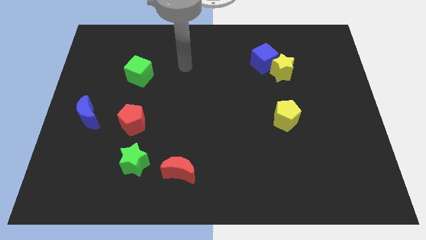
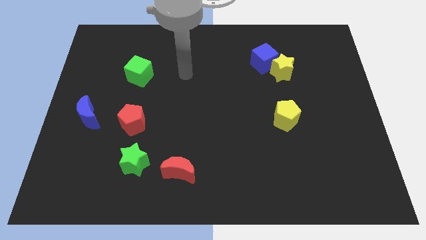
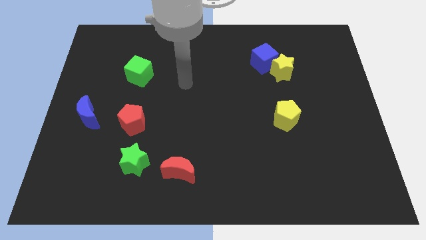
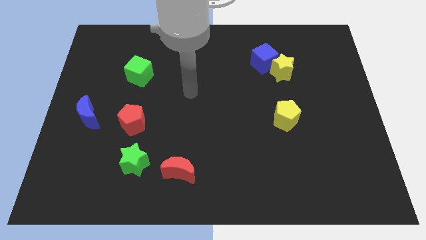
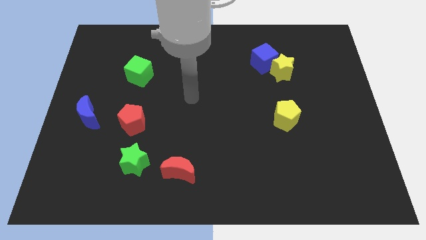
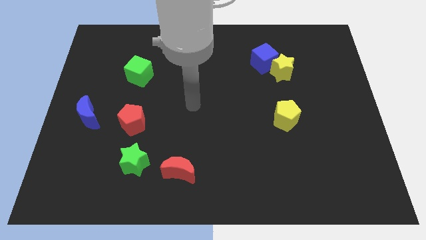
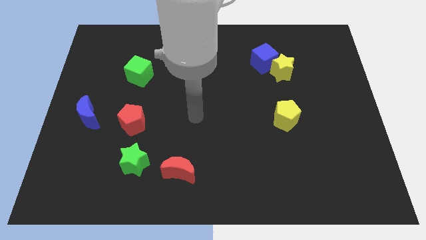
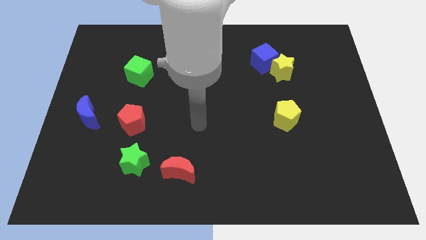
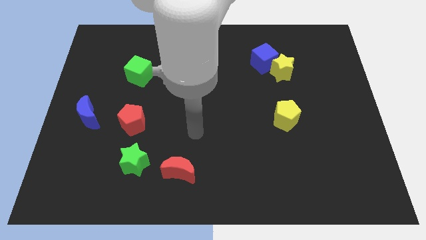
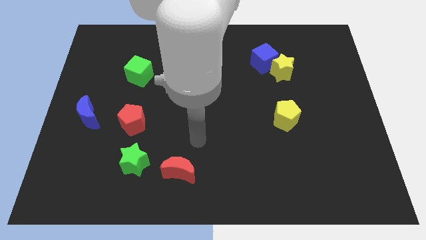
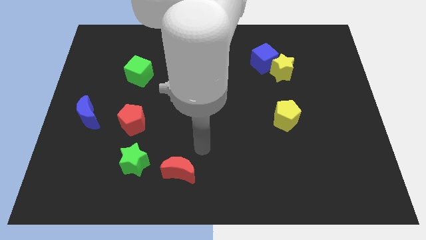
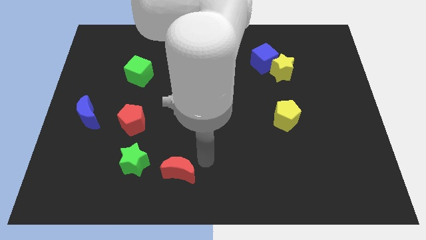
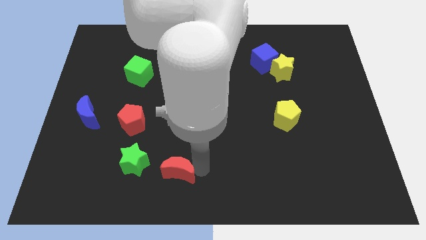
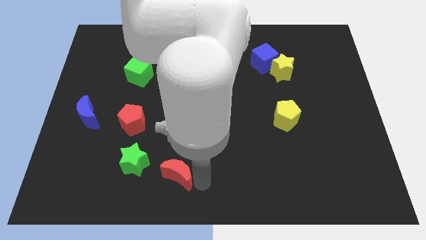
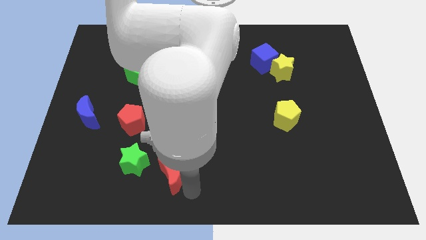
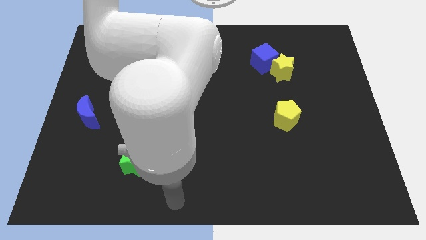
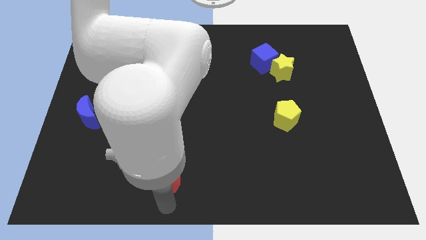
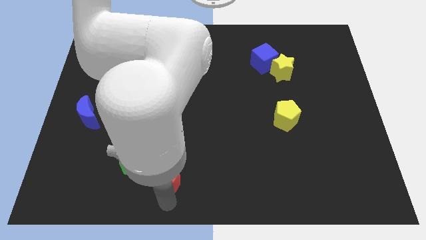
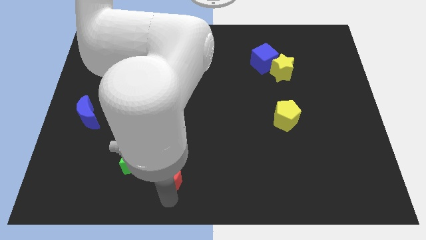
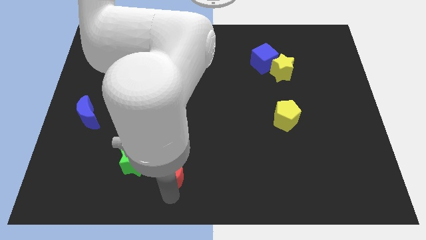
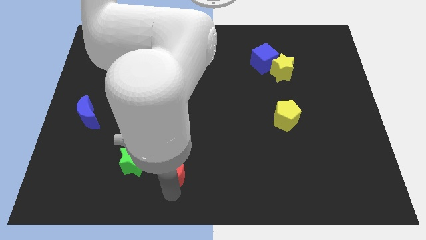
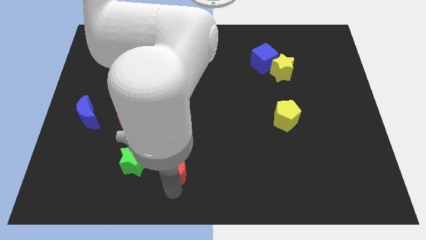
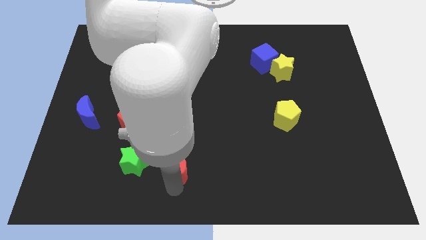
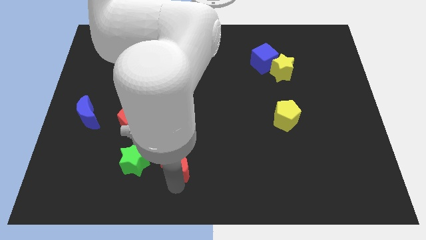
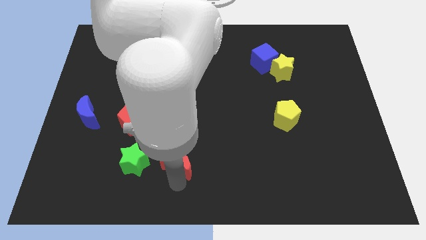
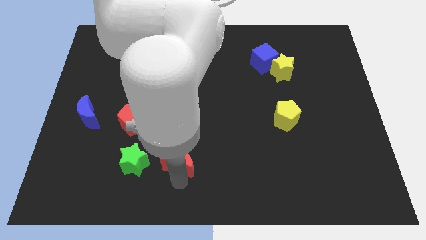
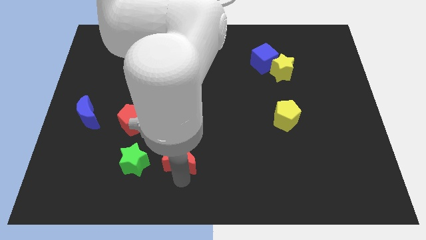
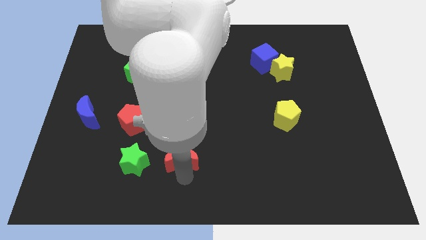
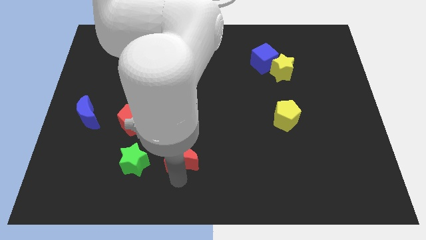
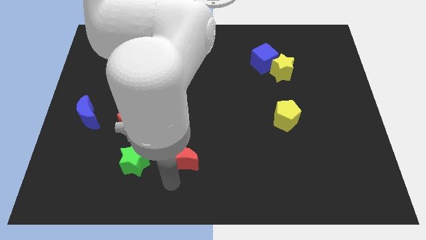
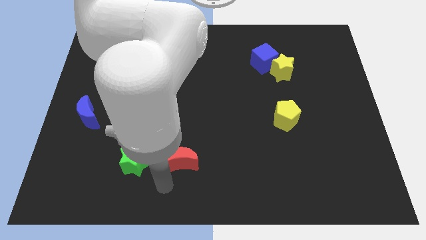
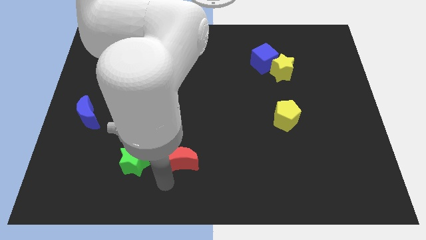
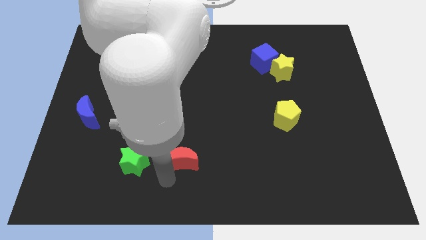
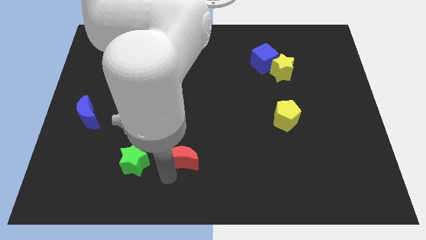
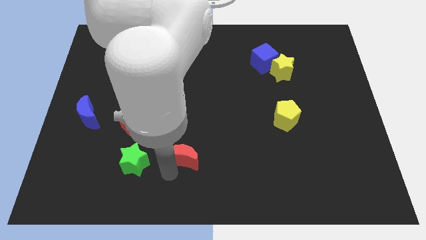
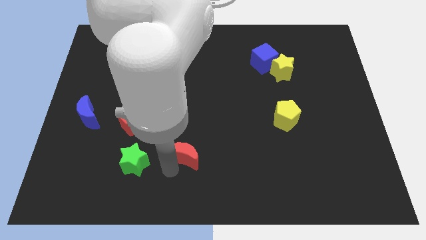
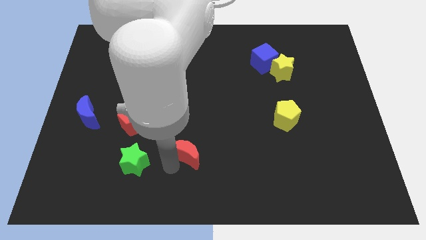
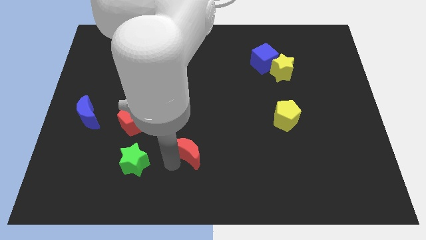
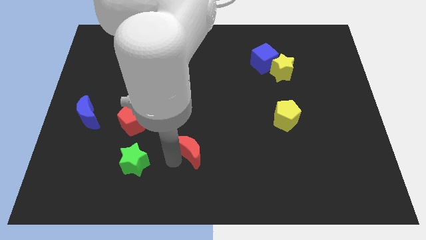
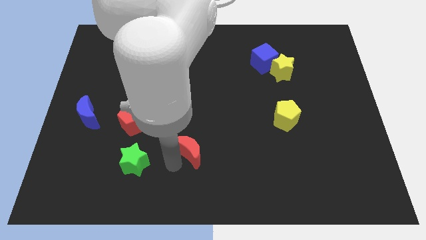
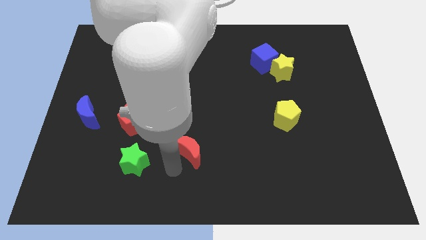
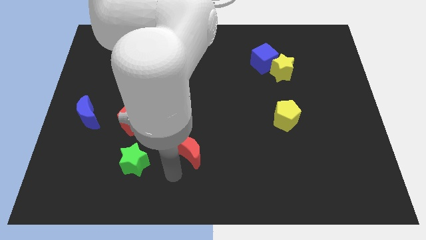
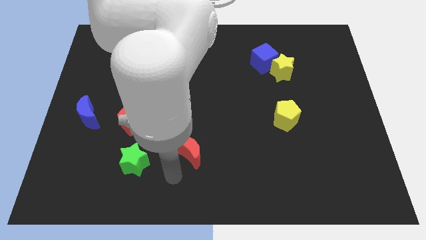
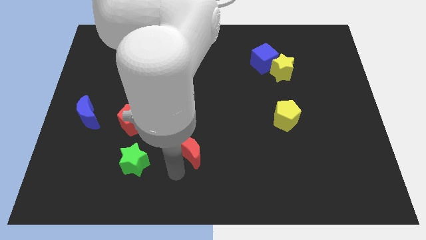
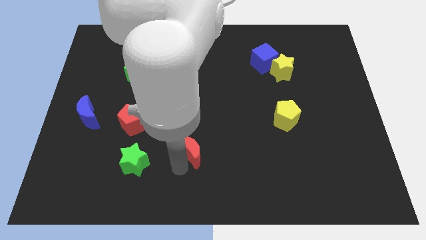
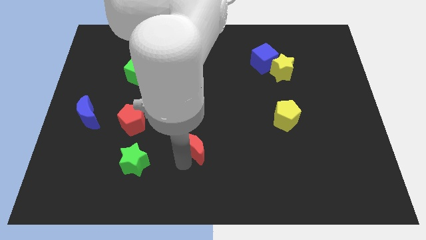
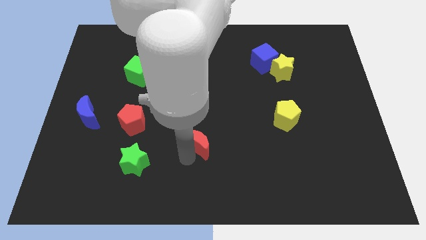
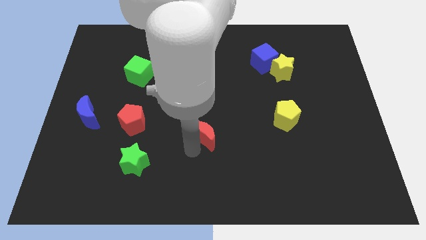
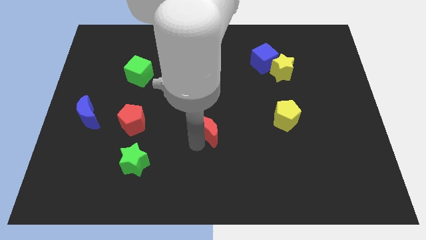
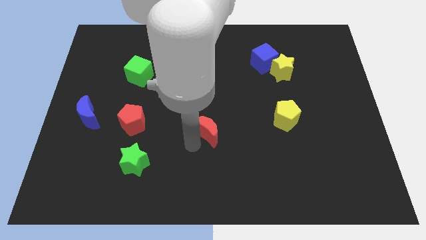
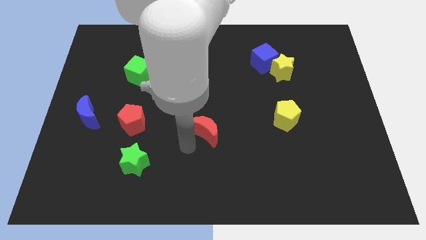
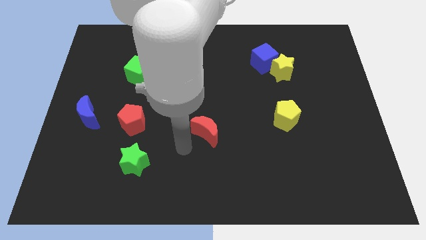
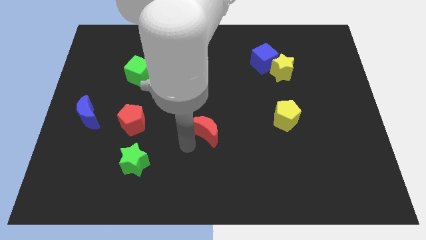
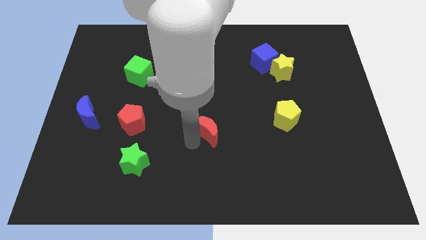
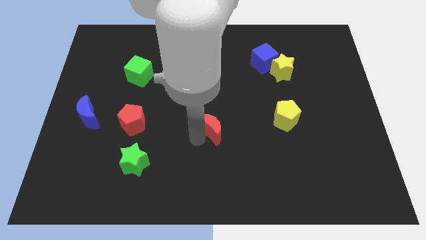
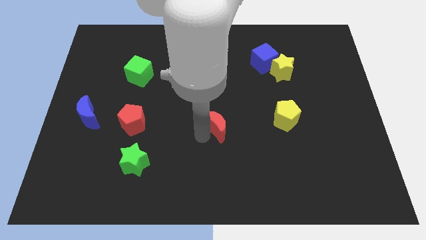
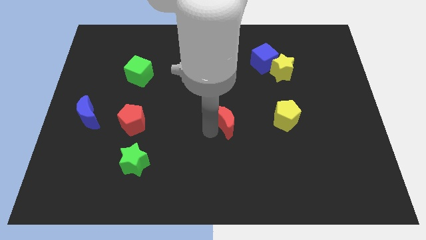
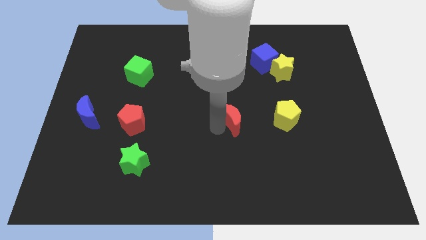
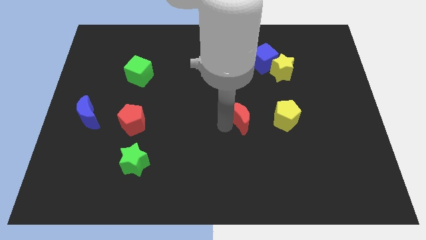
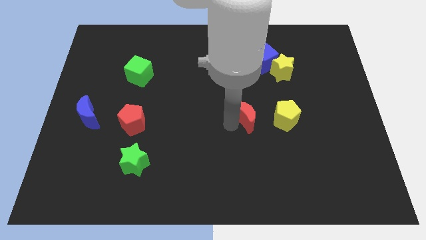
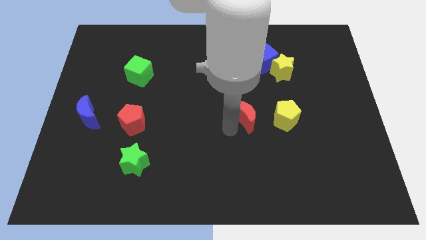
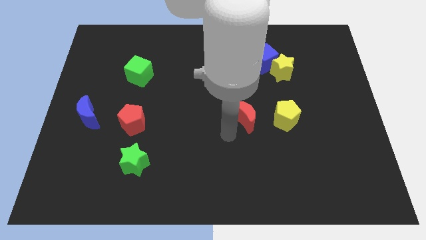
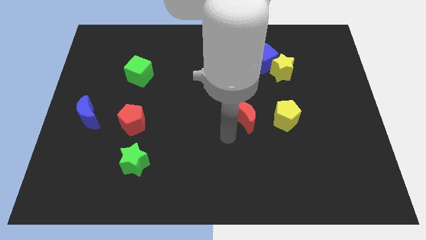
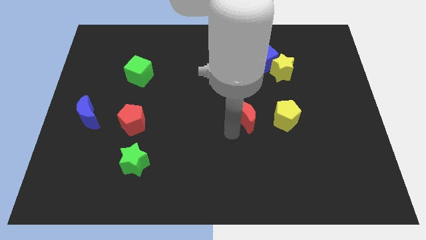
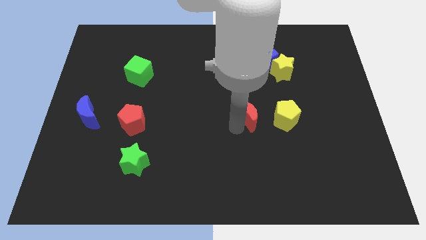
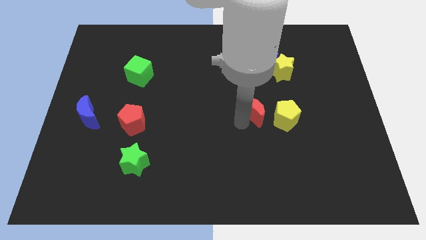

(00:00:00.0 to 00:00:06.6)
slide the red moon diagonally up and to the left of the yellow pentagon
